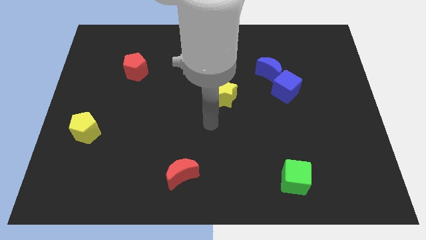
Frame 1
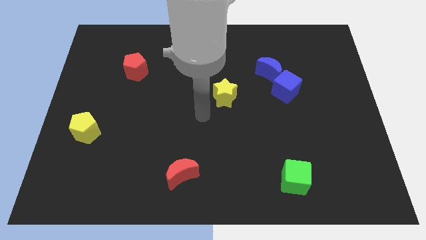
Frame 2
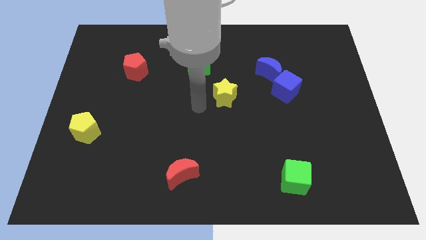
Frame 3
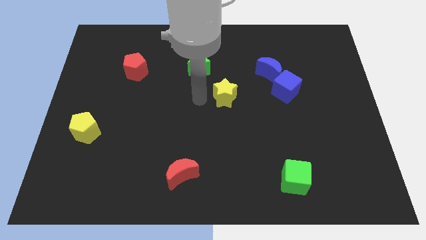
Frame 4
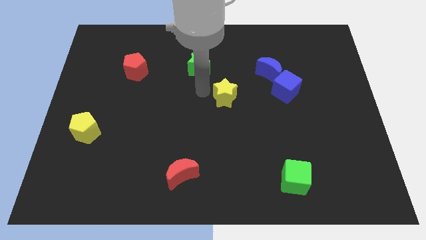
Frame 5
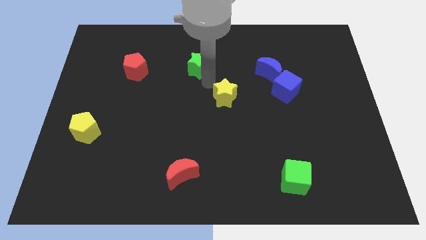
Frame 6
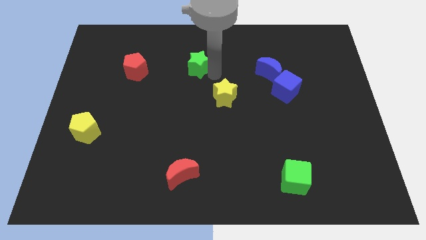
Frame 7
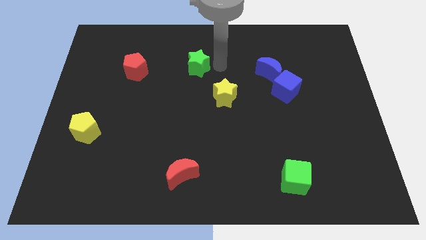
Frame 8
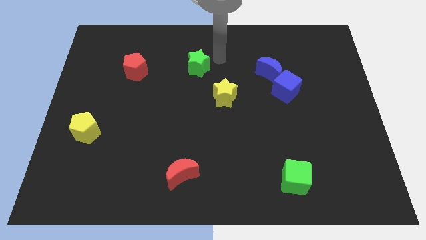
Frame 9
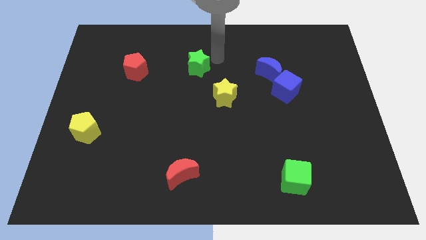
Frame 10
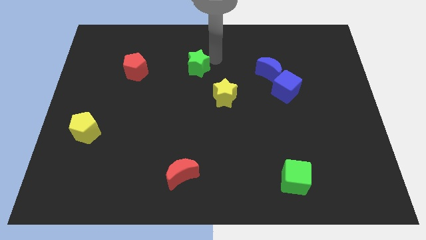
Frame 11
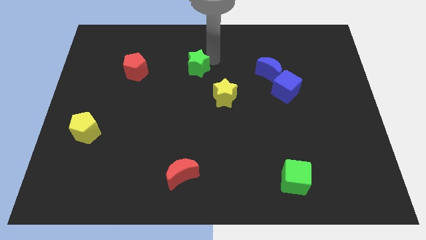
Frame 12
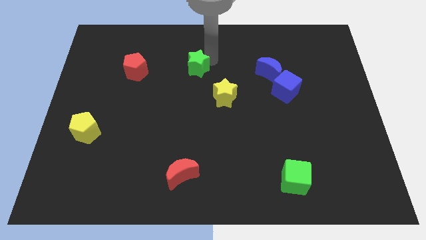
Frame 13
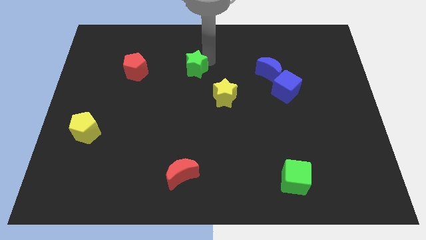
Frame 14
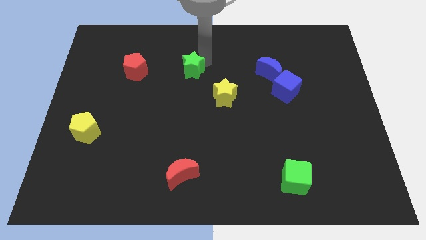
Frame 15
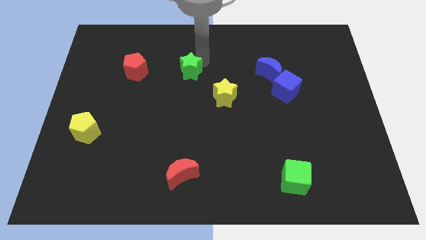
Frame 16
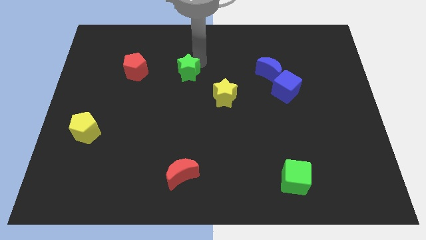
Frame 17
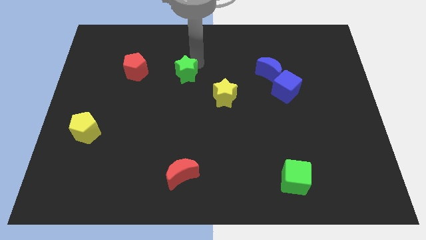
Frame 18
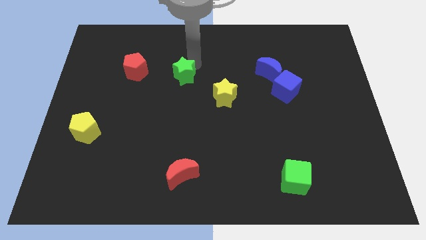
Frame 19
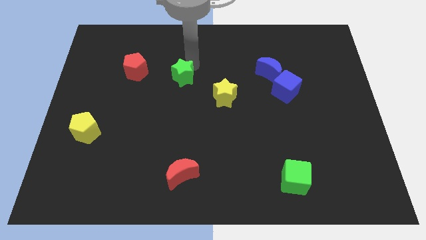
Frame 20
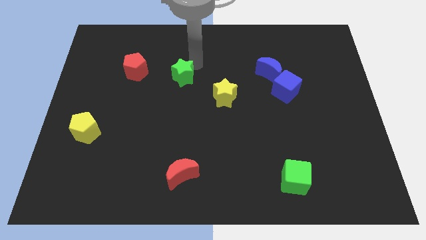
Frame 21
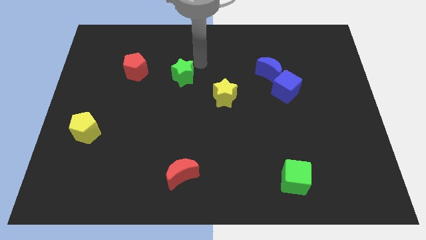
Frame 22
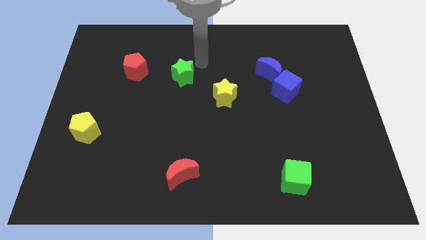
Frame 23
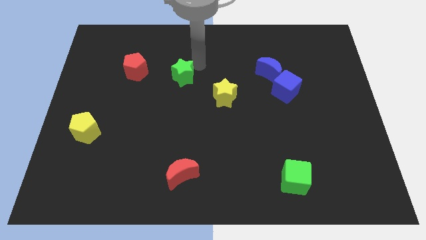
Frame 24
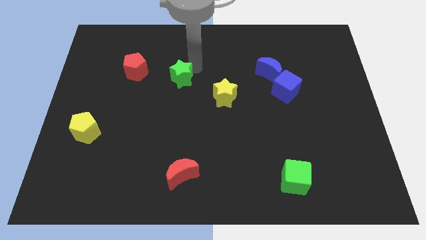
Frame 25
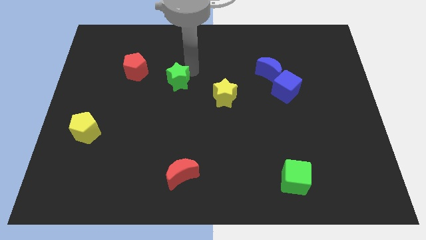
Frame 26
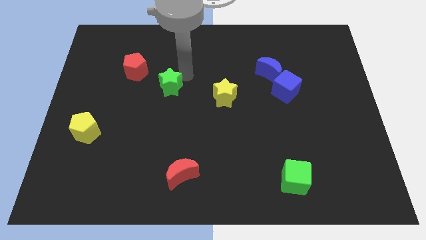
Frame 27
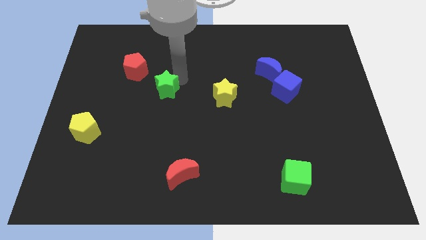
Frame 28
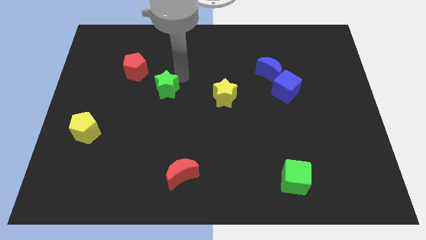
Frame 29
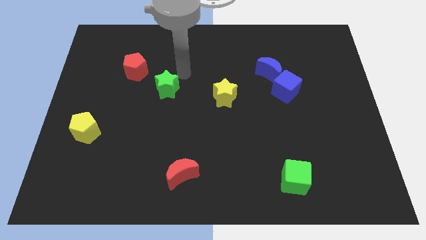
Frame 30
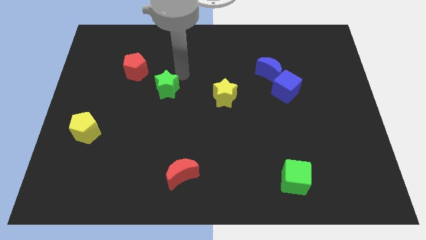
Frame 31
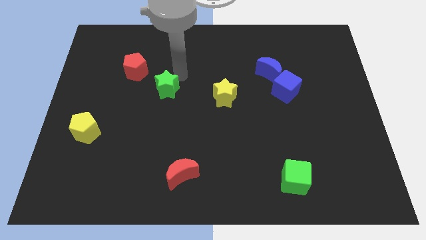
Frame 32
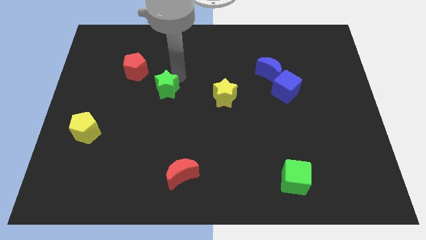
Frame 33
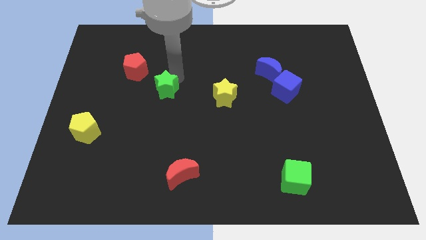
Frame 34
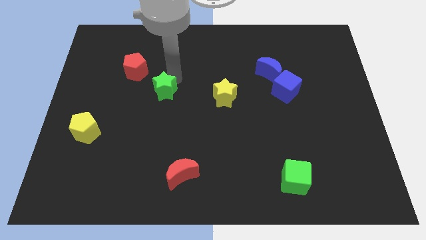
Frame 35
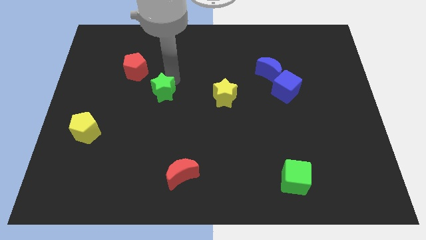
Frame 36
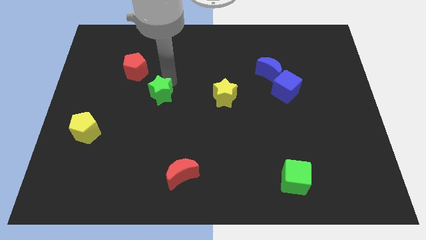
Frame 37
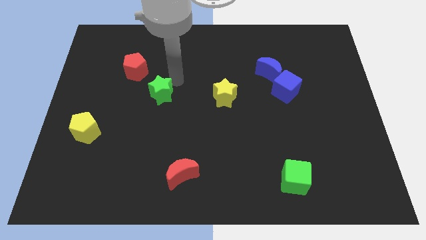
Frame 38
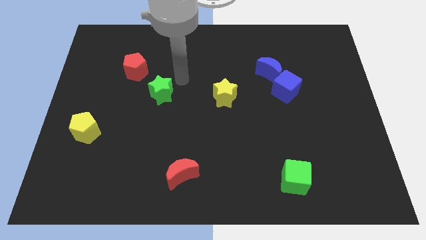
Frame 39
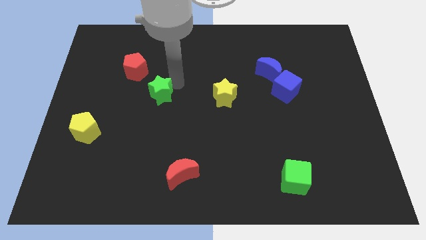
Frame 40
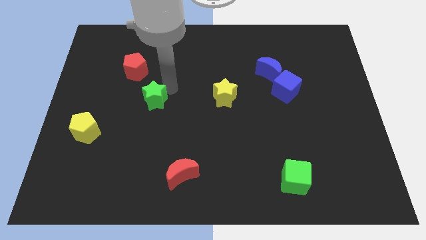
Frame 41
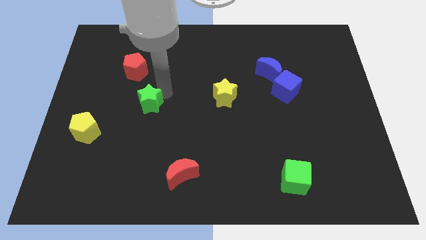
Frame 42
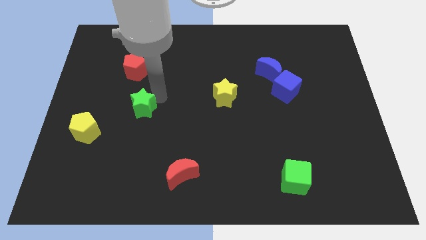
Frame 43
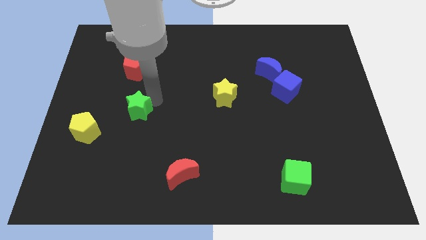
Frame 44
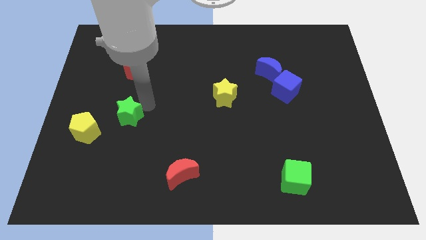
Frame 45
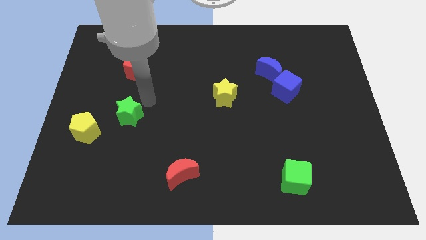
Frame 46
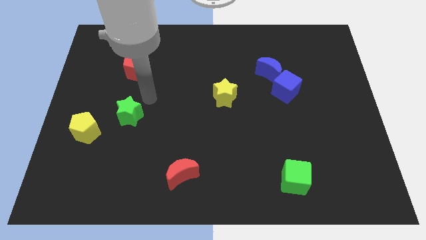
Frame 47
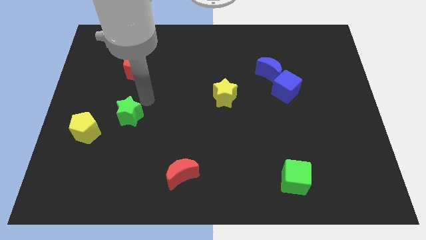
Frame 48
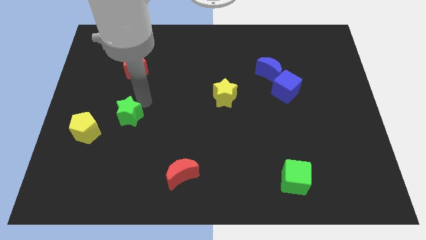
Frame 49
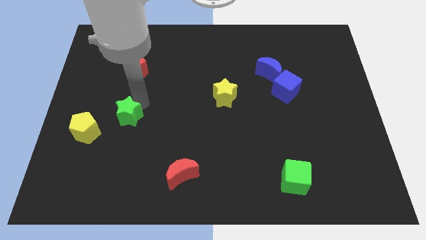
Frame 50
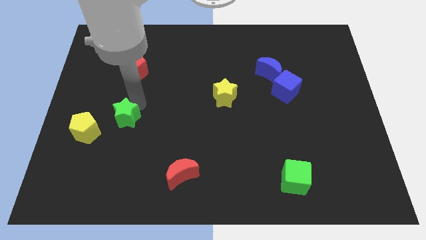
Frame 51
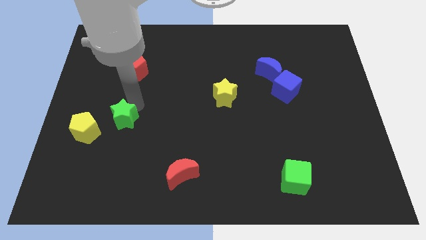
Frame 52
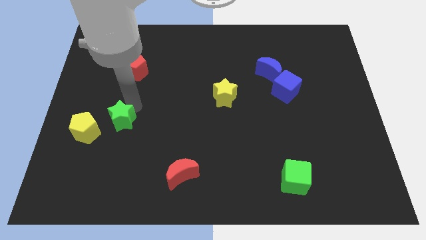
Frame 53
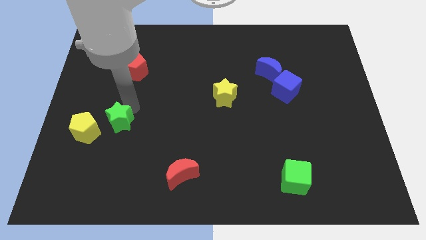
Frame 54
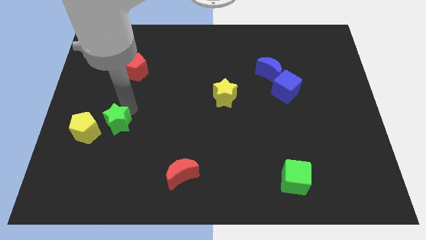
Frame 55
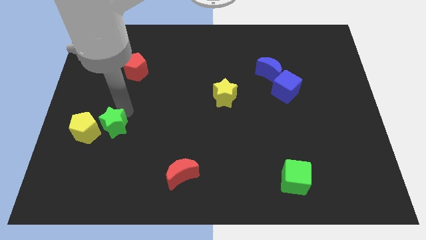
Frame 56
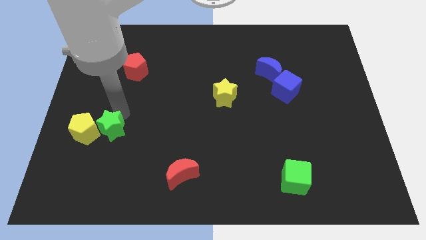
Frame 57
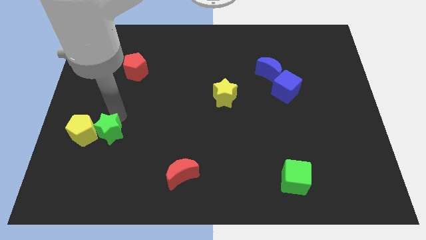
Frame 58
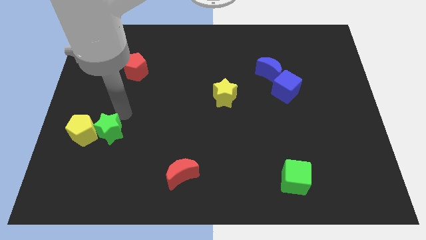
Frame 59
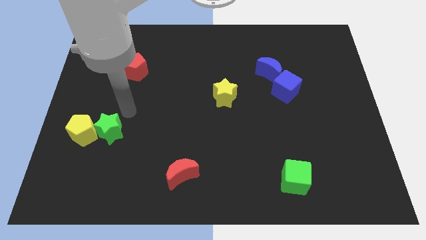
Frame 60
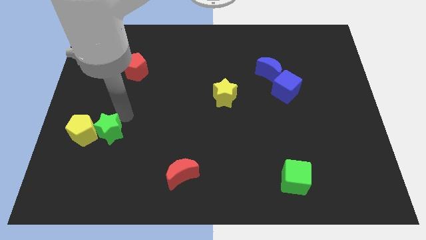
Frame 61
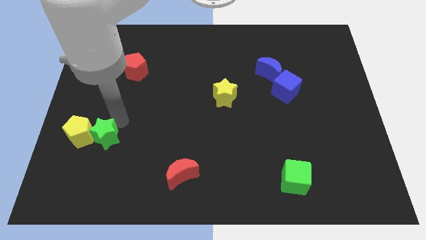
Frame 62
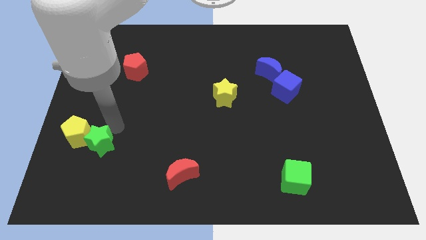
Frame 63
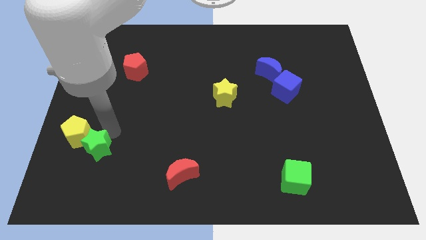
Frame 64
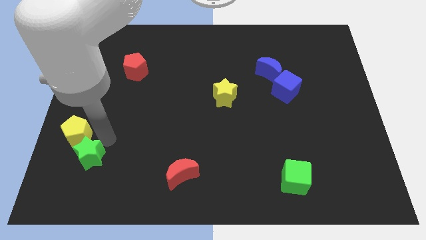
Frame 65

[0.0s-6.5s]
move the green star to the bottom side of the yellow pentagon
